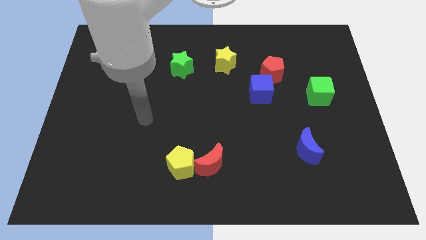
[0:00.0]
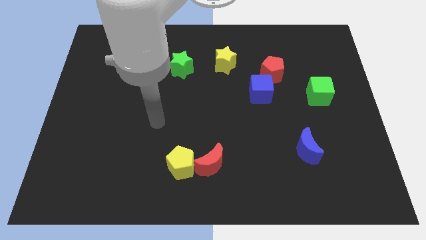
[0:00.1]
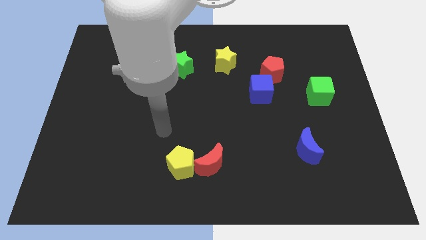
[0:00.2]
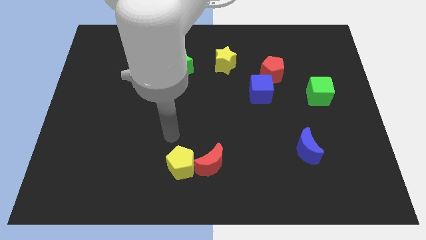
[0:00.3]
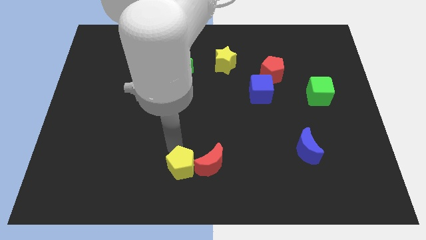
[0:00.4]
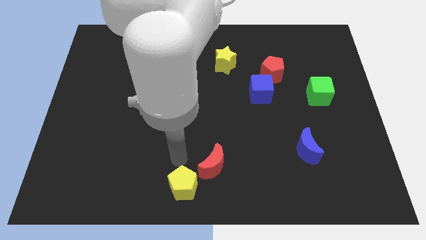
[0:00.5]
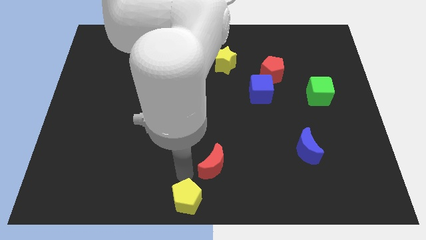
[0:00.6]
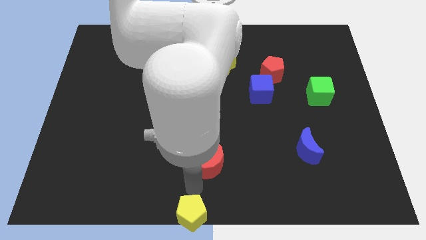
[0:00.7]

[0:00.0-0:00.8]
pull the red moon apart from the yellow pentagon

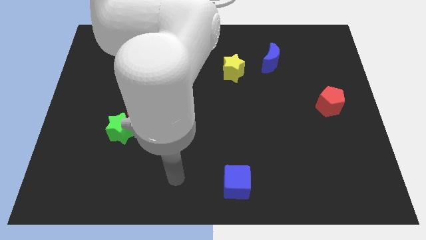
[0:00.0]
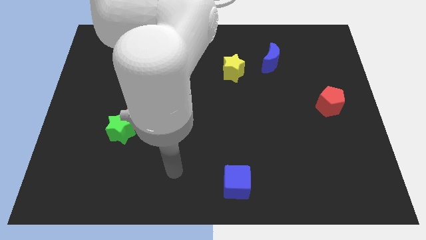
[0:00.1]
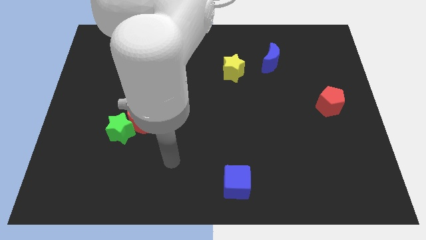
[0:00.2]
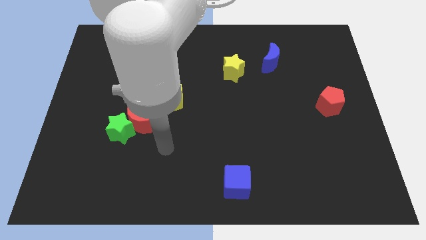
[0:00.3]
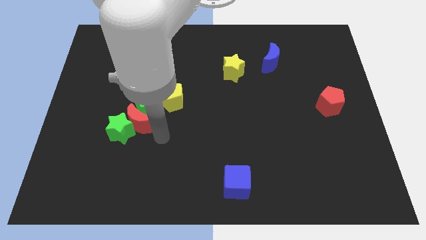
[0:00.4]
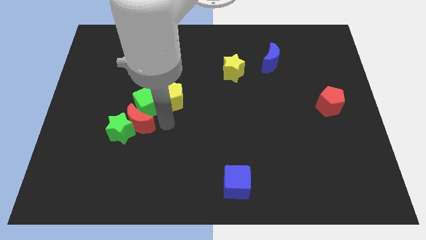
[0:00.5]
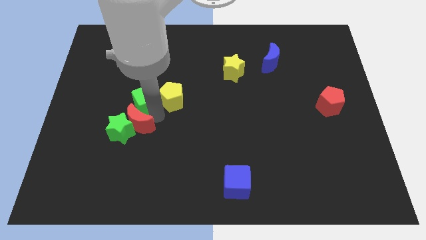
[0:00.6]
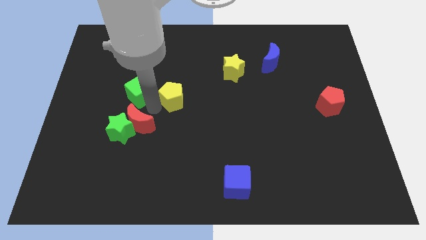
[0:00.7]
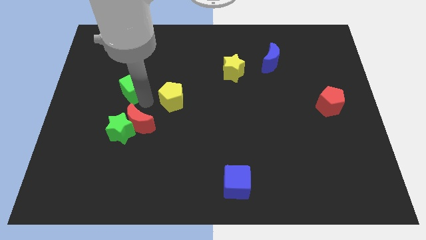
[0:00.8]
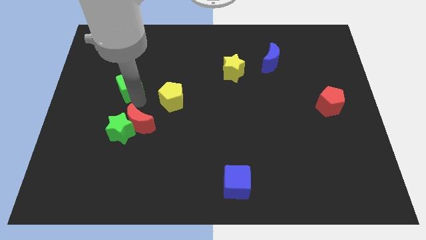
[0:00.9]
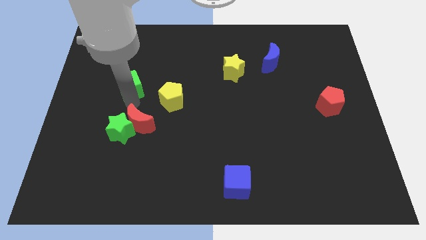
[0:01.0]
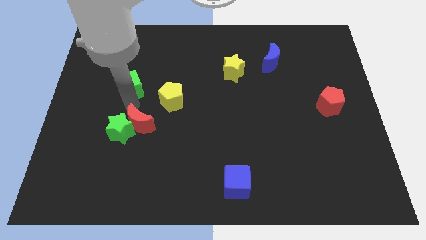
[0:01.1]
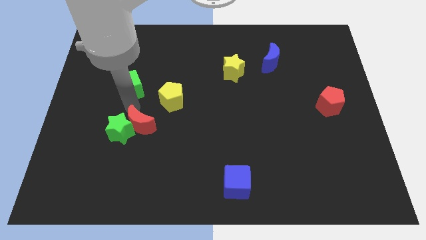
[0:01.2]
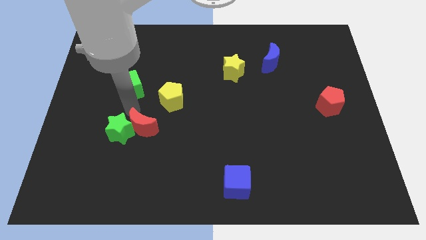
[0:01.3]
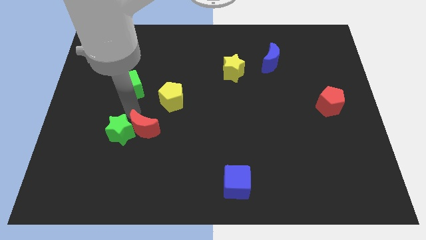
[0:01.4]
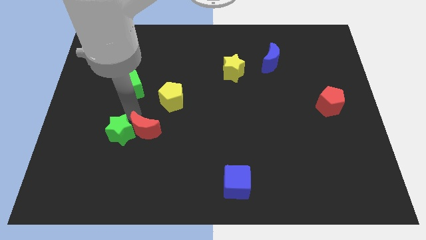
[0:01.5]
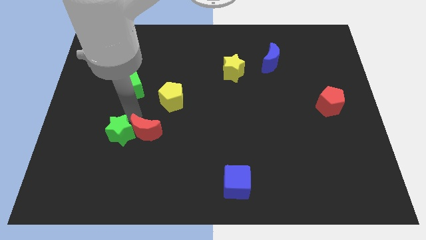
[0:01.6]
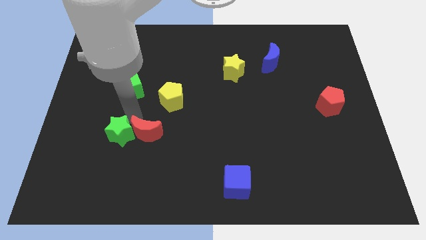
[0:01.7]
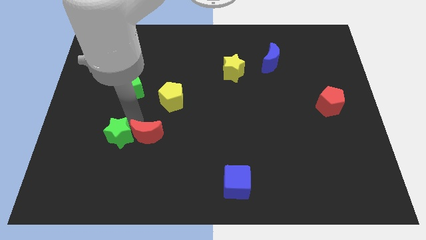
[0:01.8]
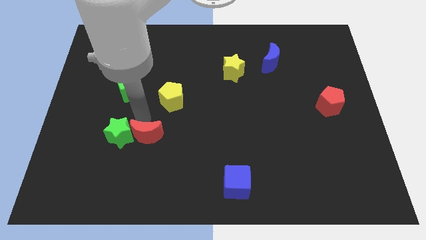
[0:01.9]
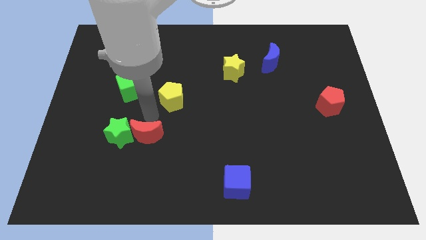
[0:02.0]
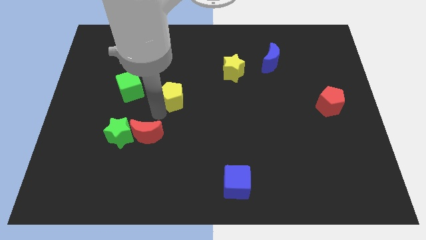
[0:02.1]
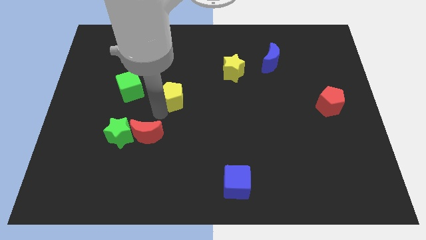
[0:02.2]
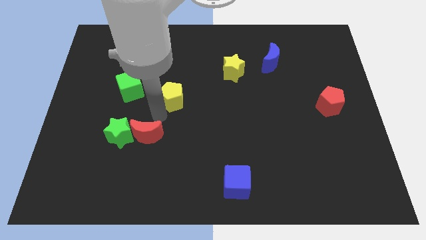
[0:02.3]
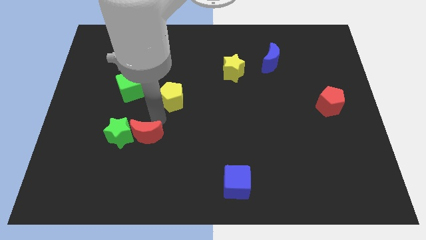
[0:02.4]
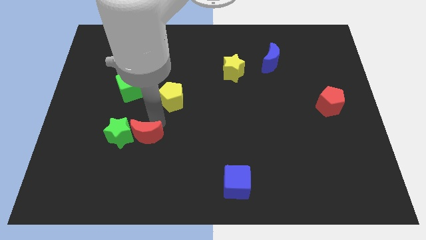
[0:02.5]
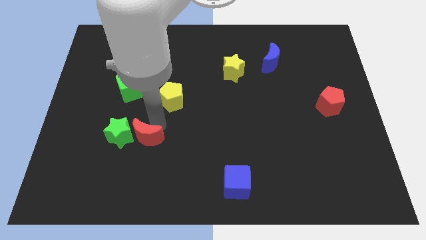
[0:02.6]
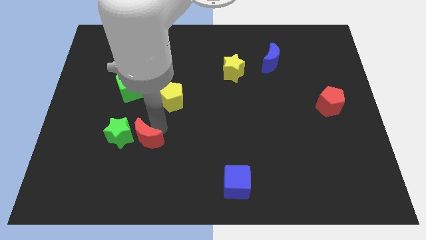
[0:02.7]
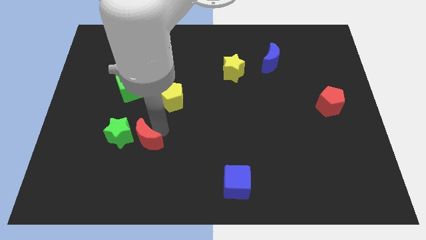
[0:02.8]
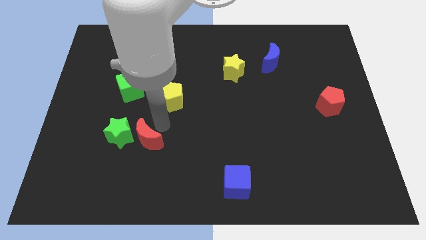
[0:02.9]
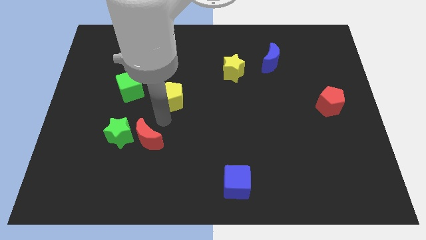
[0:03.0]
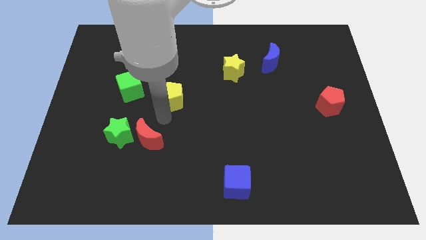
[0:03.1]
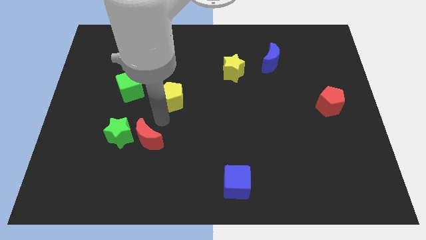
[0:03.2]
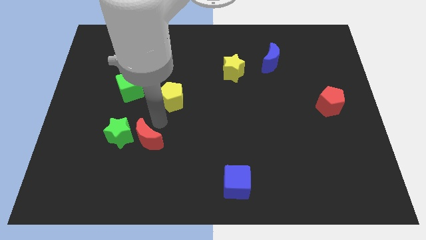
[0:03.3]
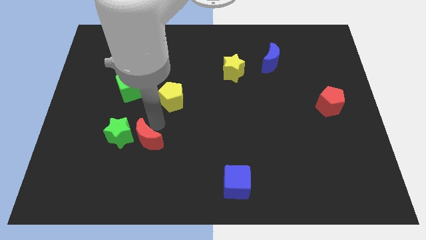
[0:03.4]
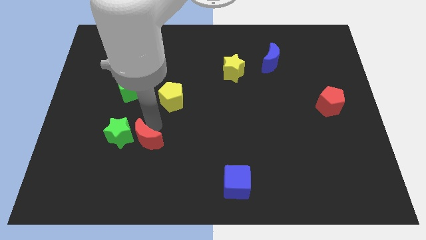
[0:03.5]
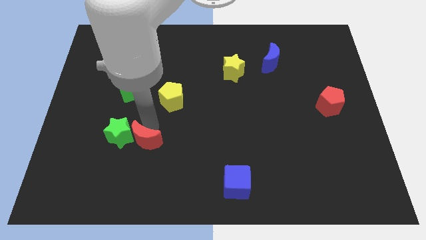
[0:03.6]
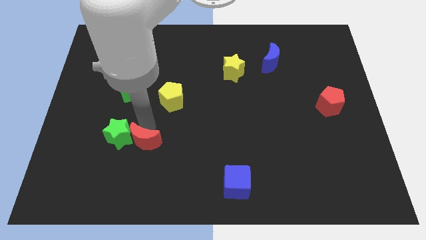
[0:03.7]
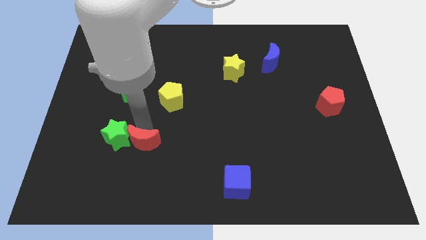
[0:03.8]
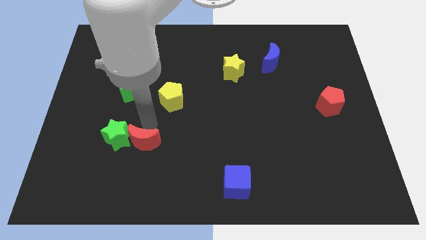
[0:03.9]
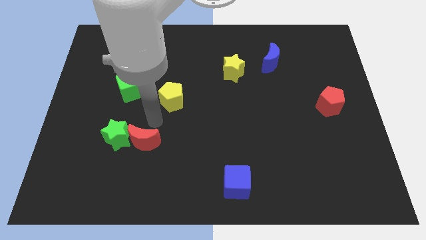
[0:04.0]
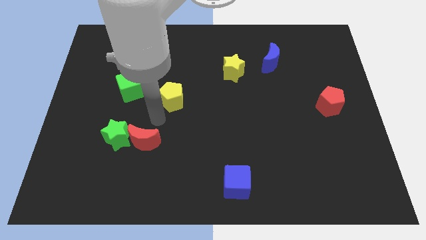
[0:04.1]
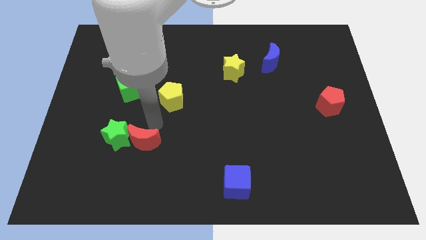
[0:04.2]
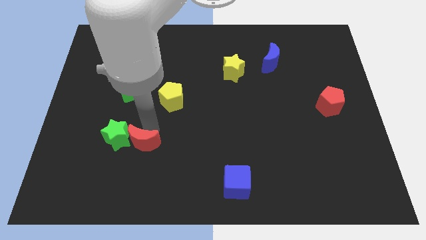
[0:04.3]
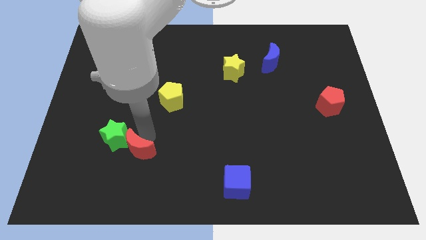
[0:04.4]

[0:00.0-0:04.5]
separate the red moon from the group of blocks

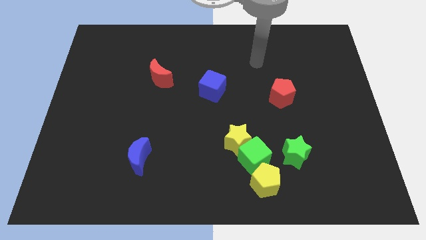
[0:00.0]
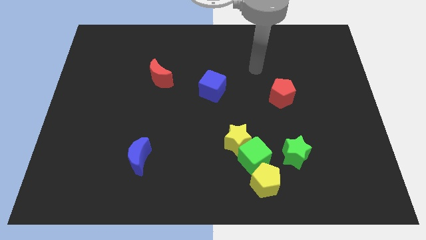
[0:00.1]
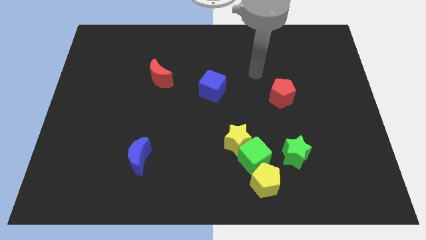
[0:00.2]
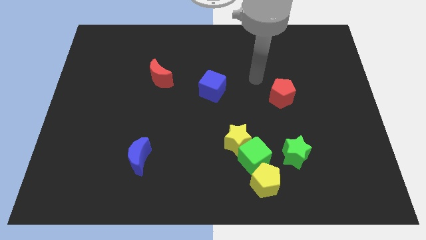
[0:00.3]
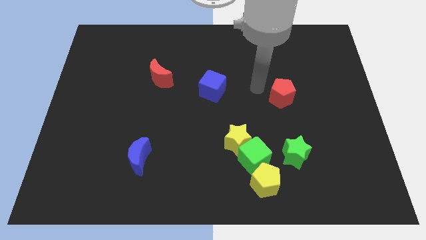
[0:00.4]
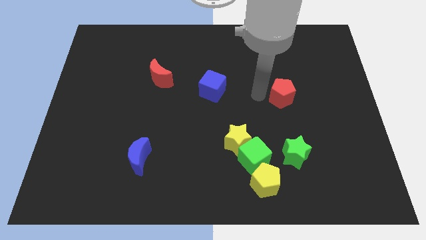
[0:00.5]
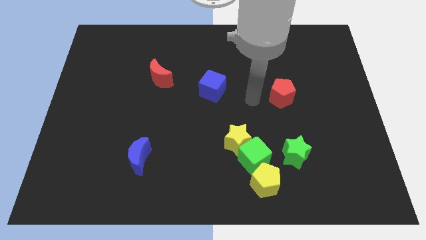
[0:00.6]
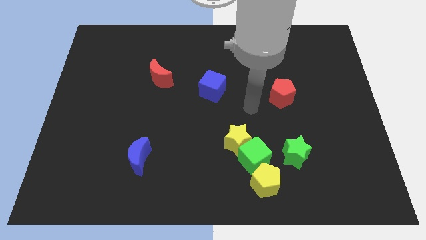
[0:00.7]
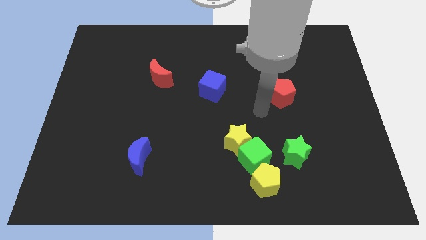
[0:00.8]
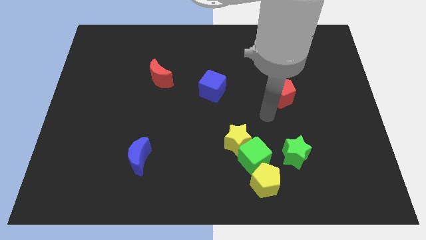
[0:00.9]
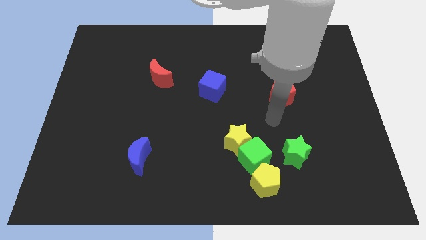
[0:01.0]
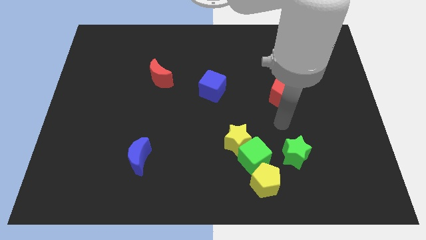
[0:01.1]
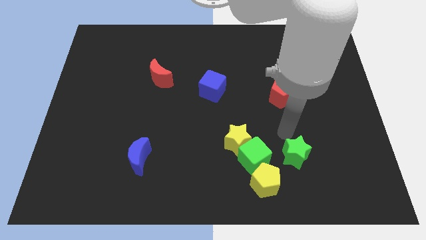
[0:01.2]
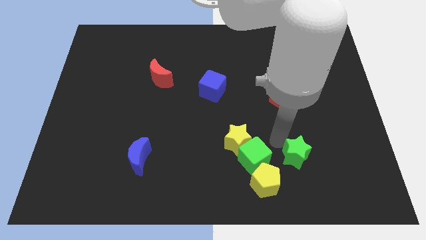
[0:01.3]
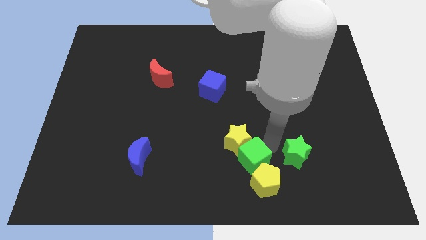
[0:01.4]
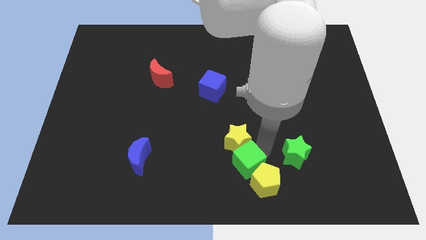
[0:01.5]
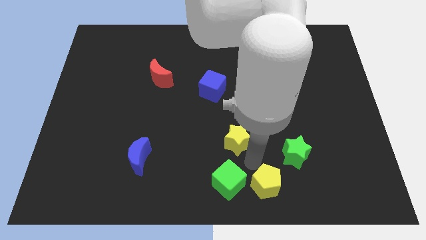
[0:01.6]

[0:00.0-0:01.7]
pull the yellow star apart from the green cube

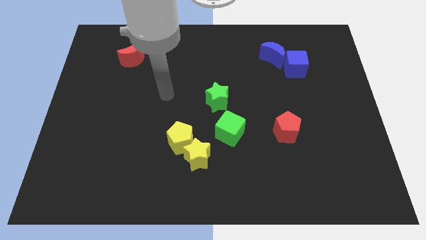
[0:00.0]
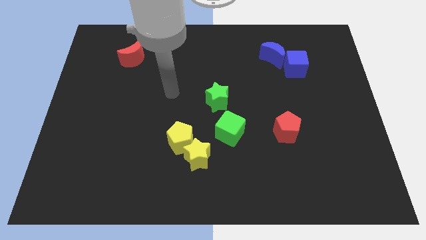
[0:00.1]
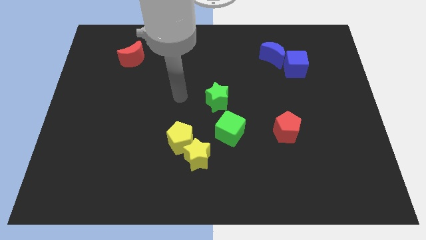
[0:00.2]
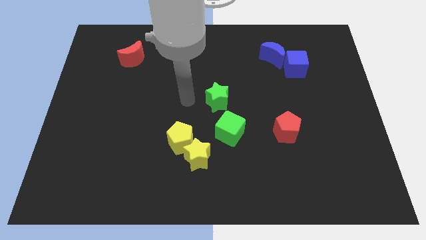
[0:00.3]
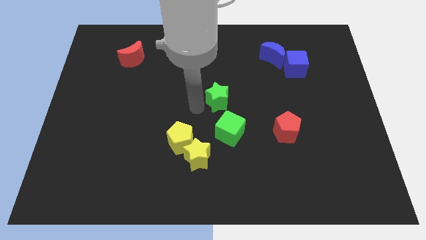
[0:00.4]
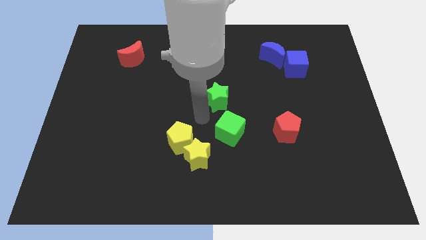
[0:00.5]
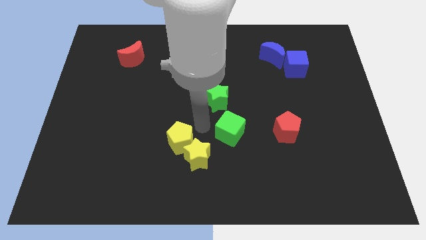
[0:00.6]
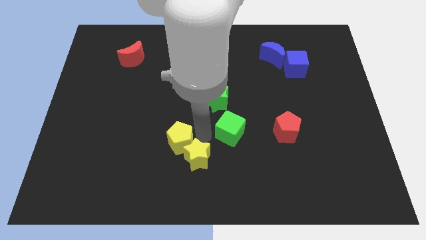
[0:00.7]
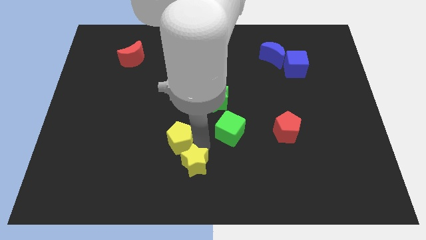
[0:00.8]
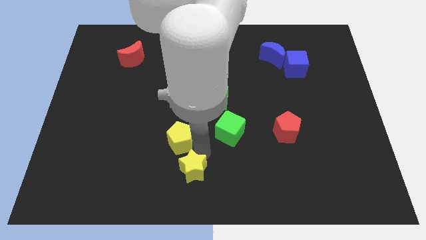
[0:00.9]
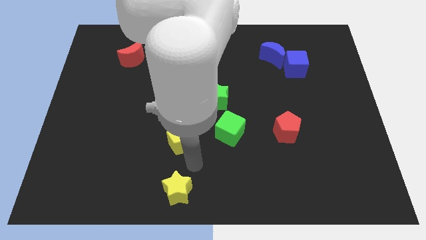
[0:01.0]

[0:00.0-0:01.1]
pull the yellow pentagon apart from the yellow star

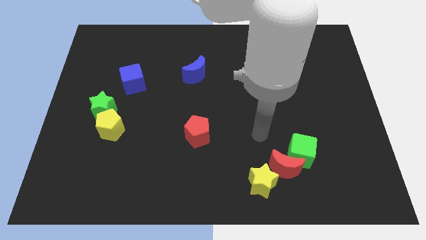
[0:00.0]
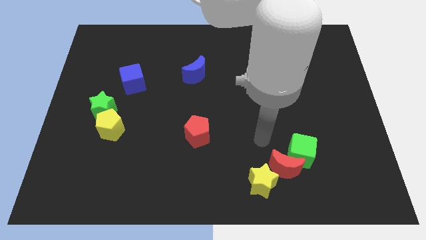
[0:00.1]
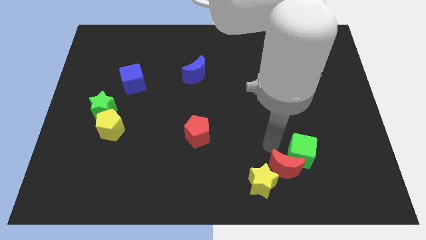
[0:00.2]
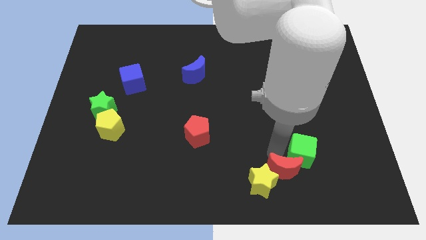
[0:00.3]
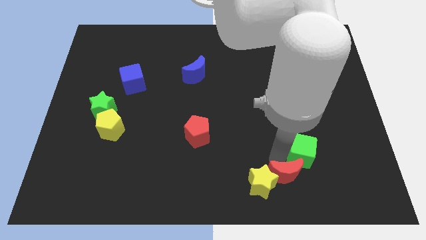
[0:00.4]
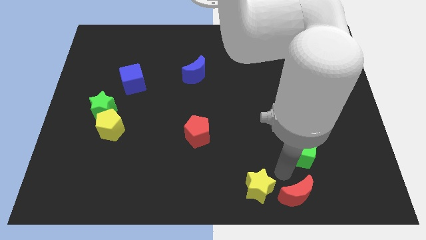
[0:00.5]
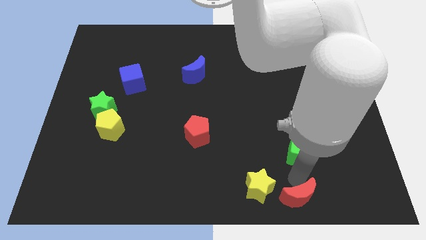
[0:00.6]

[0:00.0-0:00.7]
pull the green cube apart from the red moon

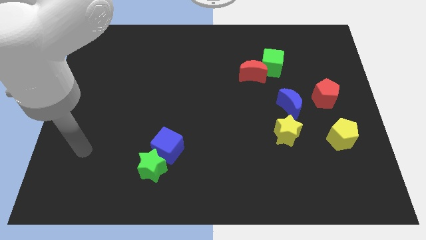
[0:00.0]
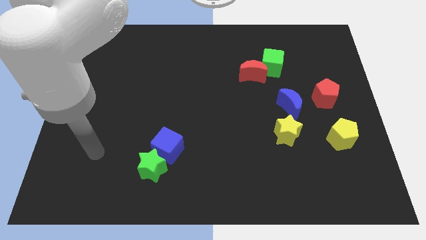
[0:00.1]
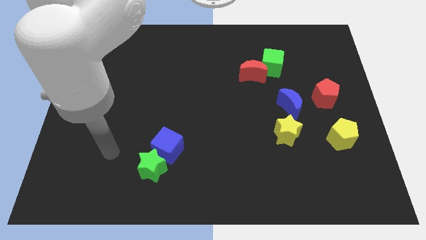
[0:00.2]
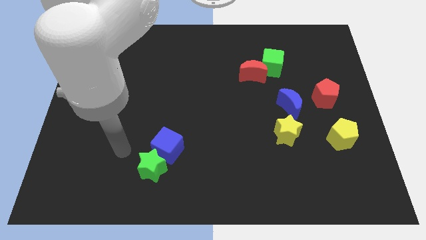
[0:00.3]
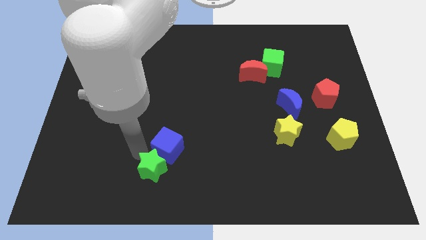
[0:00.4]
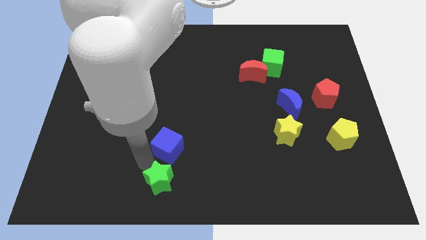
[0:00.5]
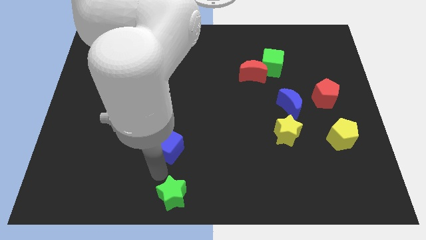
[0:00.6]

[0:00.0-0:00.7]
separate the blue cube from the green star
